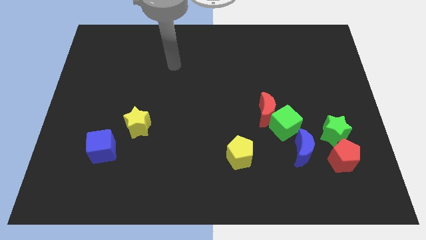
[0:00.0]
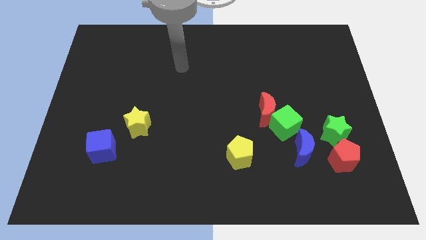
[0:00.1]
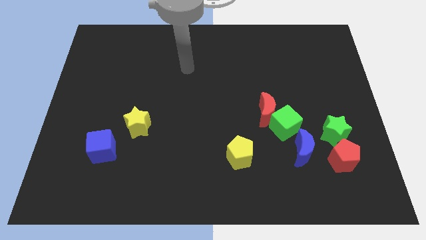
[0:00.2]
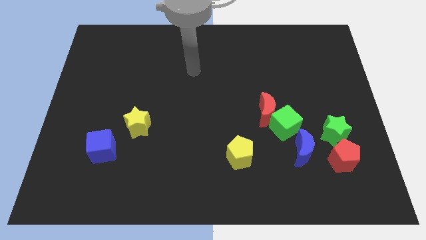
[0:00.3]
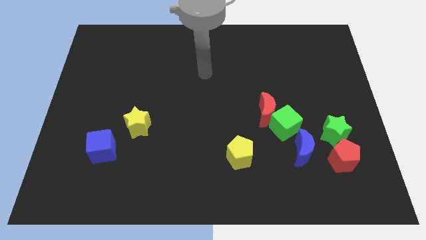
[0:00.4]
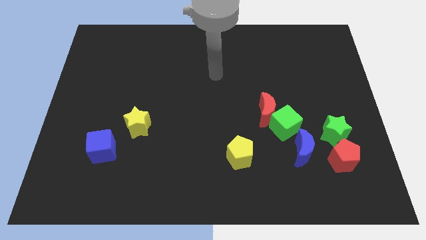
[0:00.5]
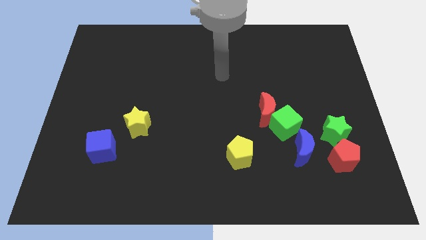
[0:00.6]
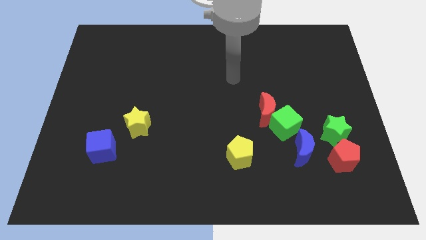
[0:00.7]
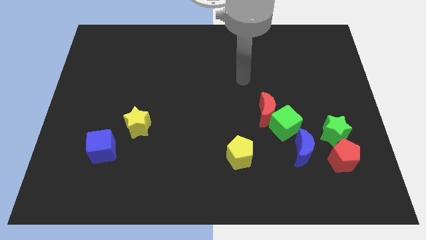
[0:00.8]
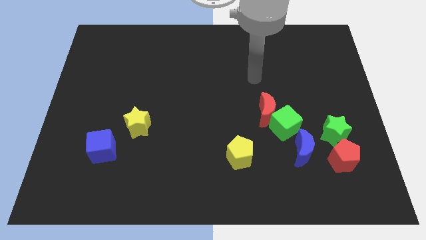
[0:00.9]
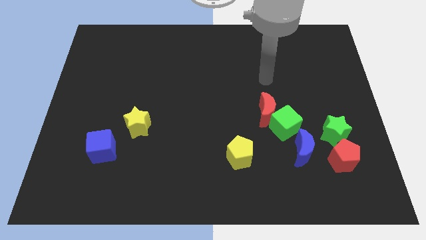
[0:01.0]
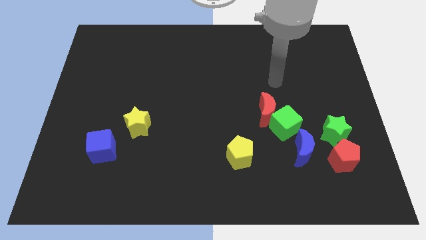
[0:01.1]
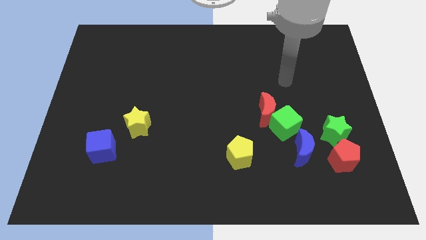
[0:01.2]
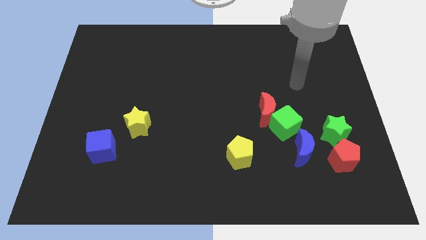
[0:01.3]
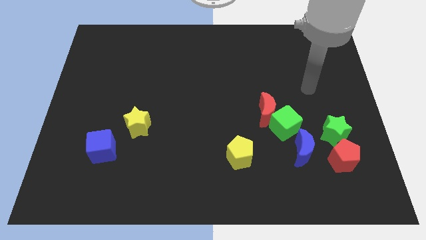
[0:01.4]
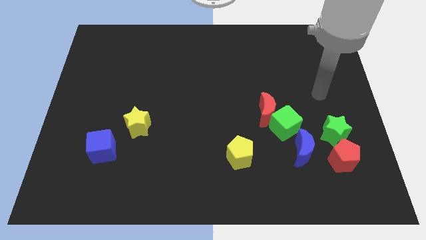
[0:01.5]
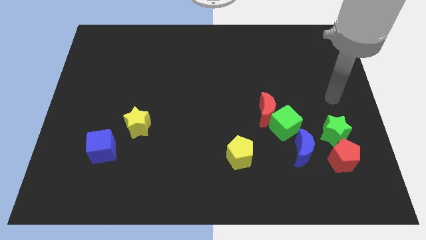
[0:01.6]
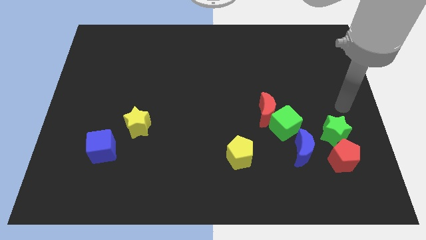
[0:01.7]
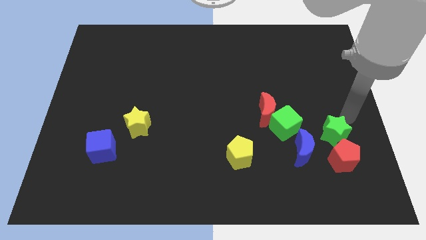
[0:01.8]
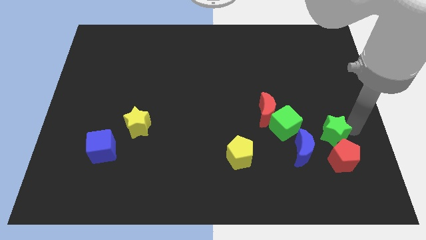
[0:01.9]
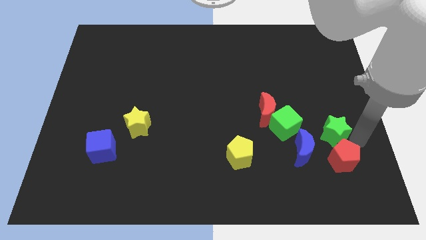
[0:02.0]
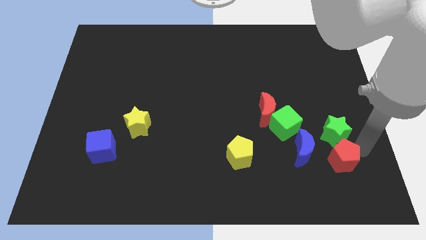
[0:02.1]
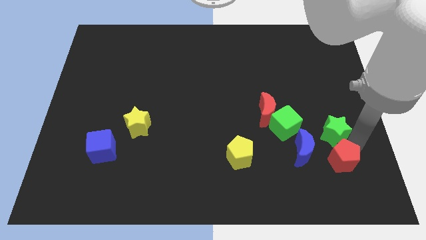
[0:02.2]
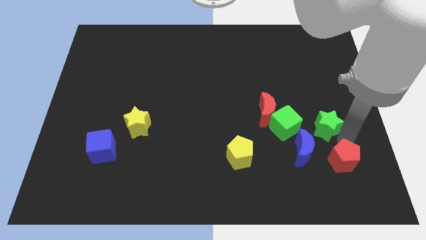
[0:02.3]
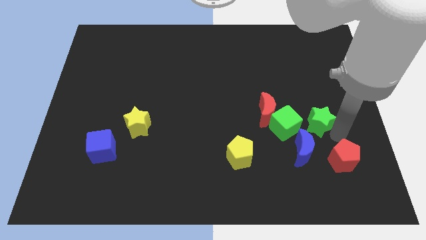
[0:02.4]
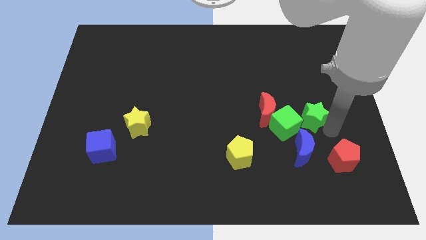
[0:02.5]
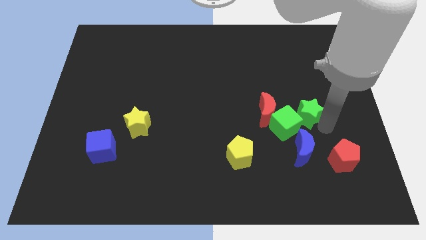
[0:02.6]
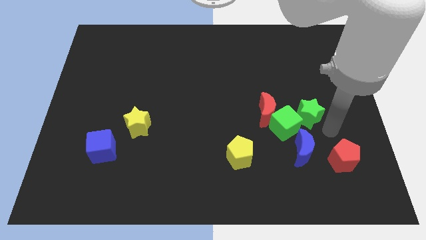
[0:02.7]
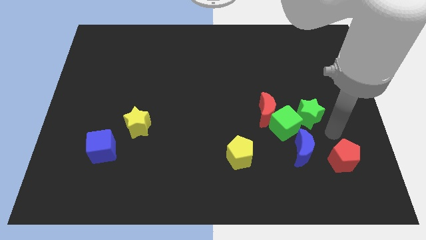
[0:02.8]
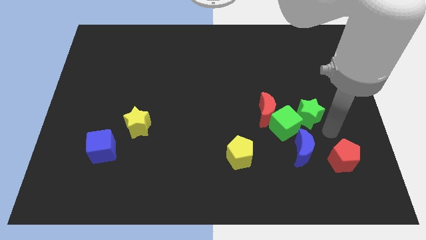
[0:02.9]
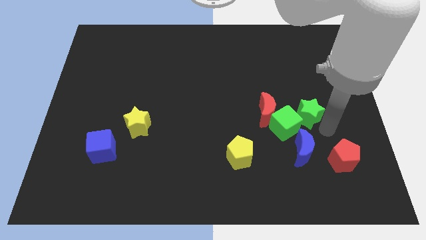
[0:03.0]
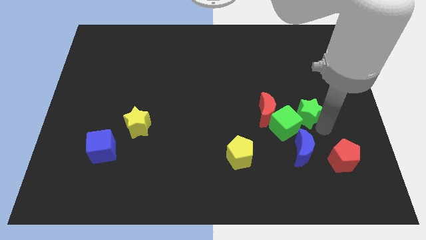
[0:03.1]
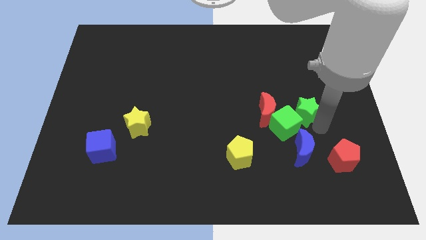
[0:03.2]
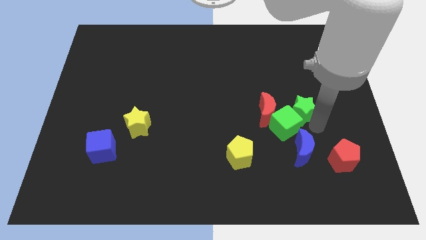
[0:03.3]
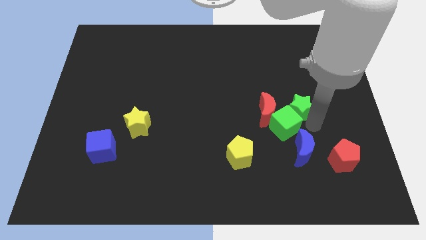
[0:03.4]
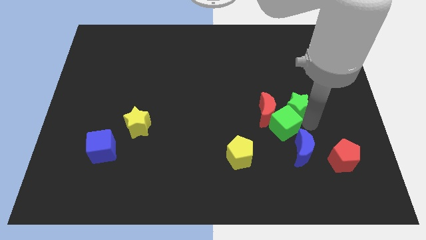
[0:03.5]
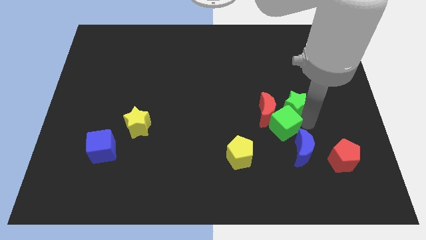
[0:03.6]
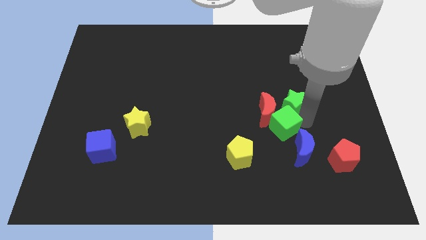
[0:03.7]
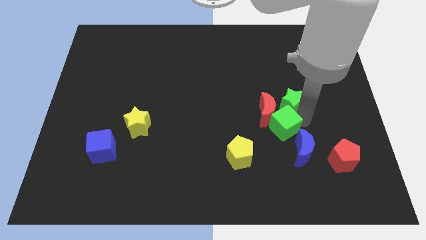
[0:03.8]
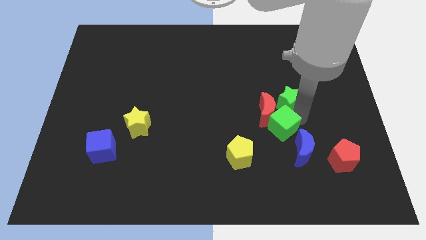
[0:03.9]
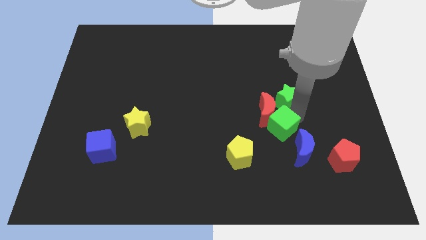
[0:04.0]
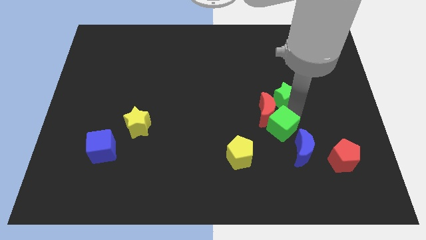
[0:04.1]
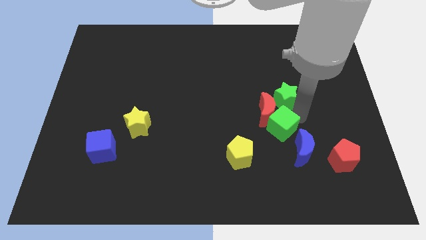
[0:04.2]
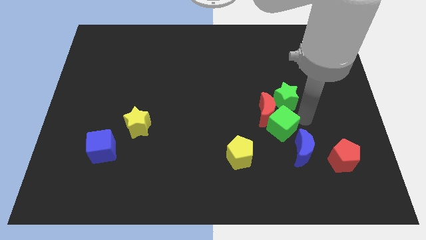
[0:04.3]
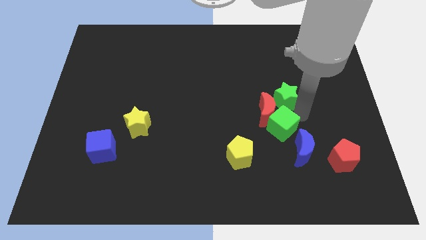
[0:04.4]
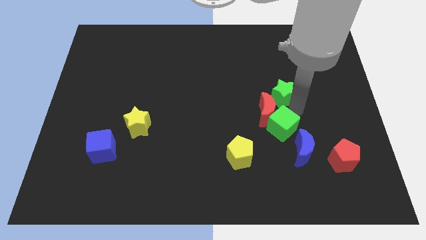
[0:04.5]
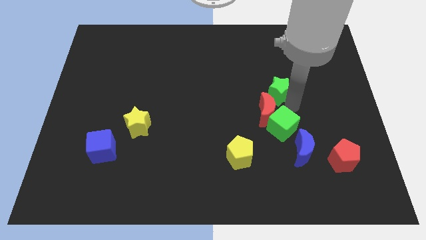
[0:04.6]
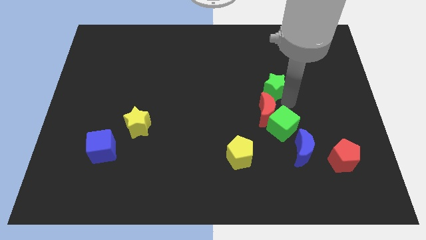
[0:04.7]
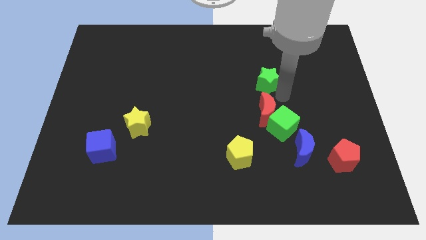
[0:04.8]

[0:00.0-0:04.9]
push the green star upwards and left

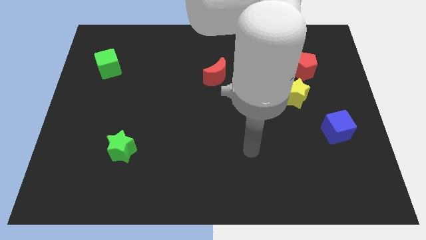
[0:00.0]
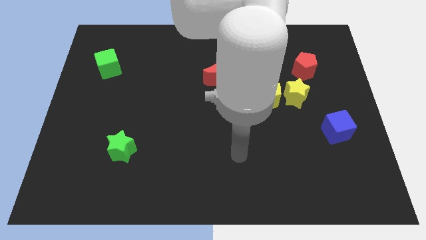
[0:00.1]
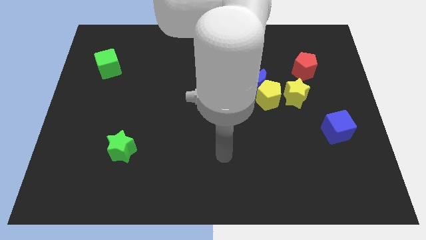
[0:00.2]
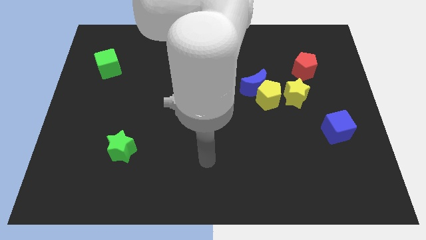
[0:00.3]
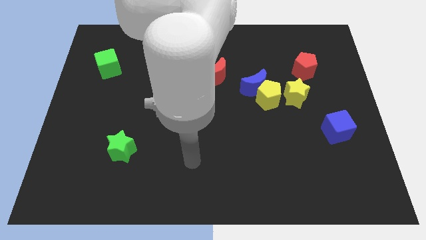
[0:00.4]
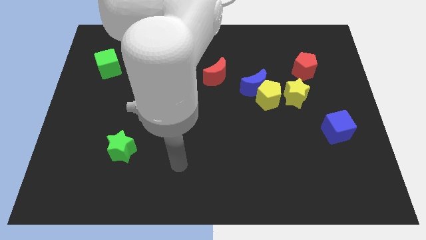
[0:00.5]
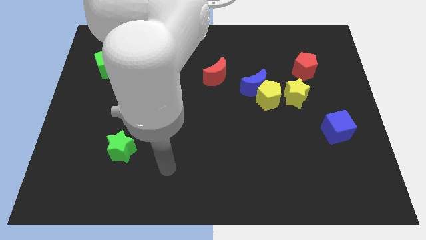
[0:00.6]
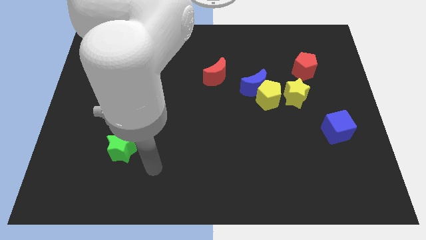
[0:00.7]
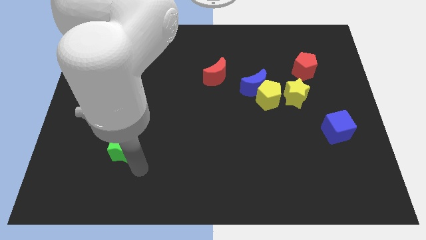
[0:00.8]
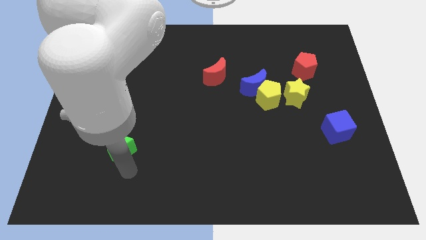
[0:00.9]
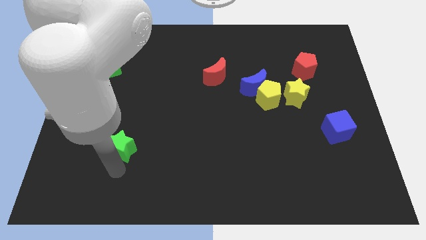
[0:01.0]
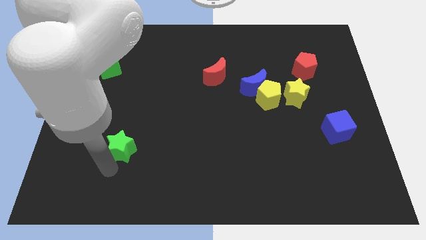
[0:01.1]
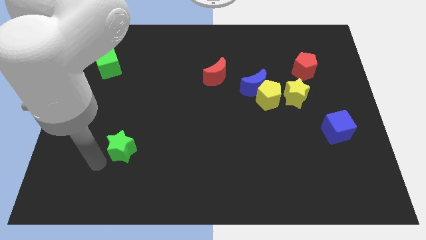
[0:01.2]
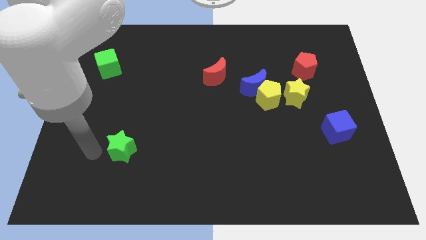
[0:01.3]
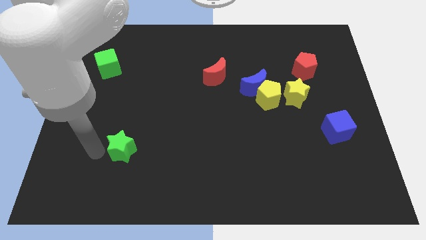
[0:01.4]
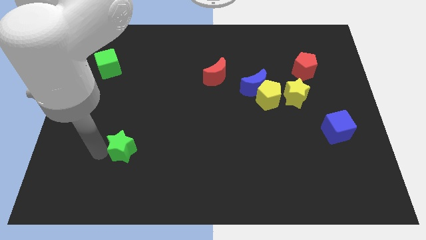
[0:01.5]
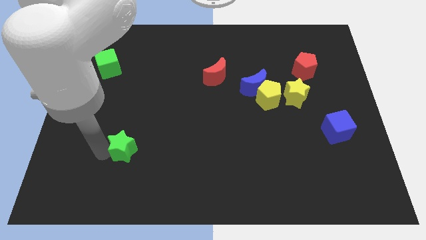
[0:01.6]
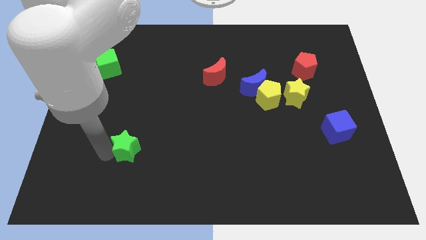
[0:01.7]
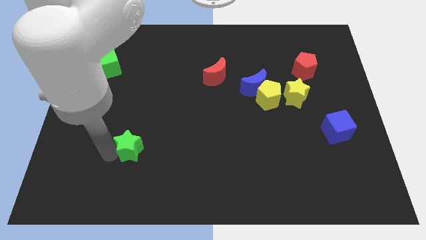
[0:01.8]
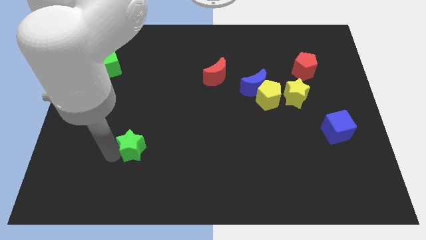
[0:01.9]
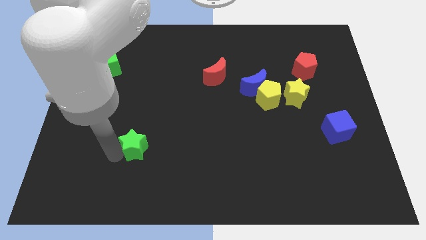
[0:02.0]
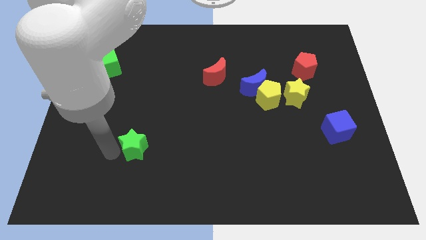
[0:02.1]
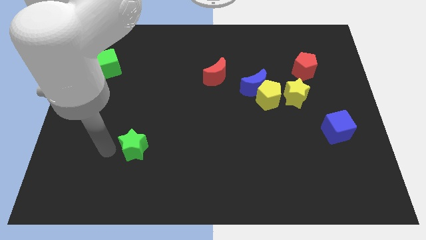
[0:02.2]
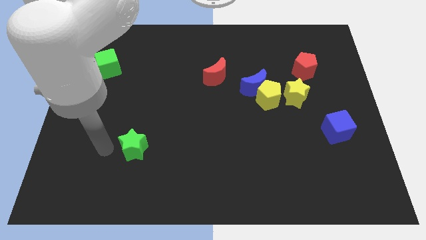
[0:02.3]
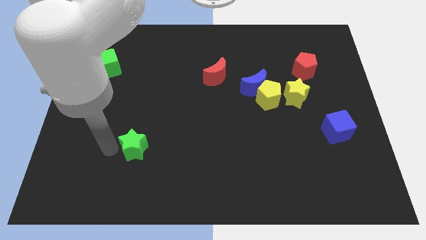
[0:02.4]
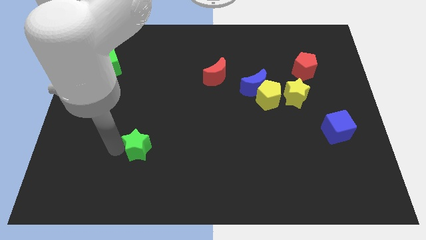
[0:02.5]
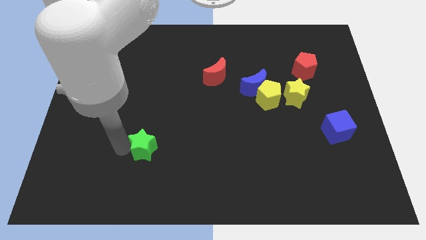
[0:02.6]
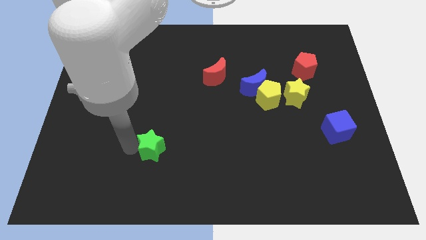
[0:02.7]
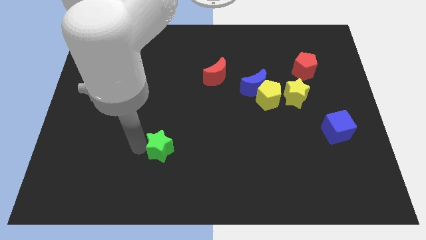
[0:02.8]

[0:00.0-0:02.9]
move the green star slightly right
